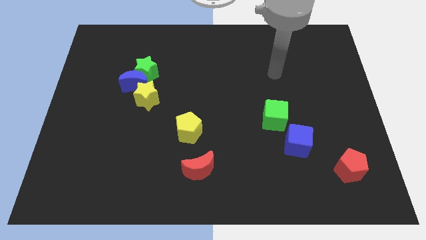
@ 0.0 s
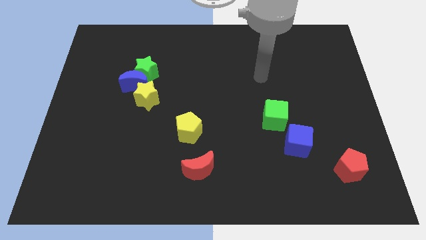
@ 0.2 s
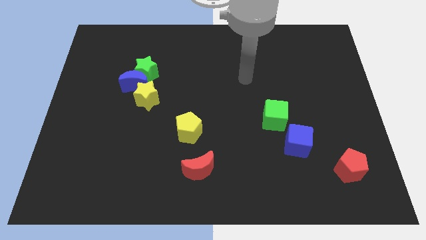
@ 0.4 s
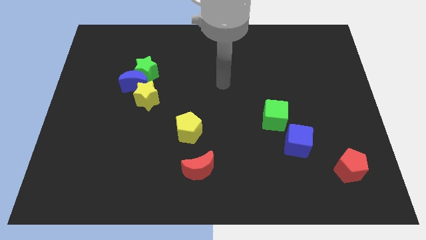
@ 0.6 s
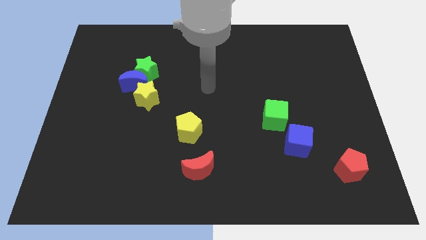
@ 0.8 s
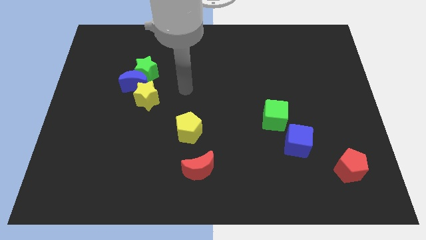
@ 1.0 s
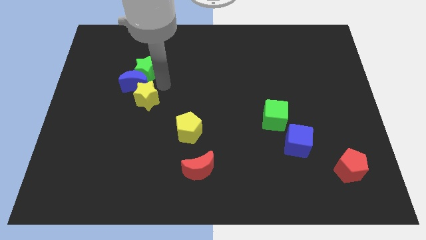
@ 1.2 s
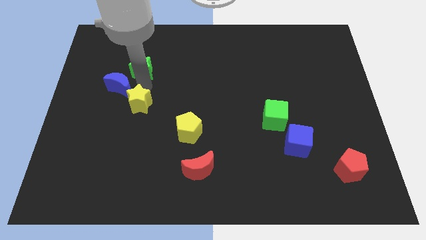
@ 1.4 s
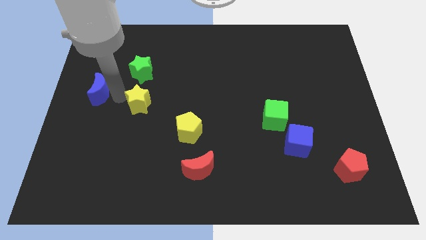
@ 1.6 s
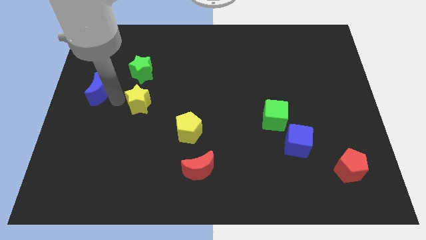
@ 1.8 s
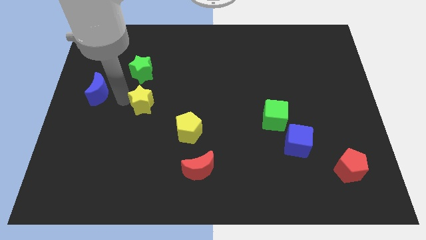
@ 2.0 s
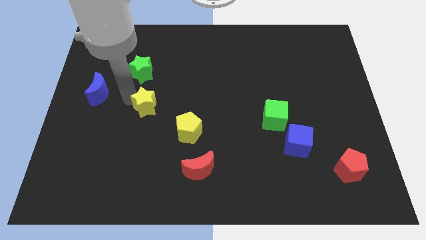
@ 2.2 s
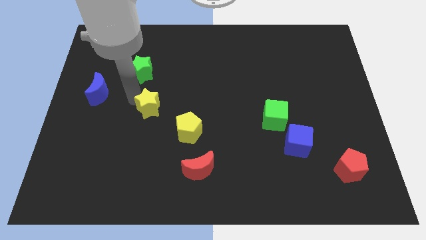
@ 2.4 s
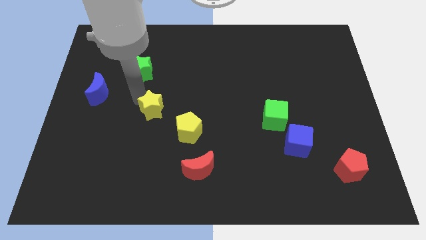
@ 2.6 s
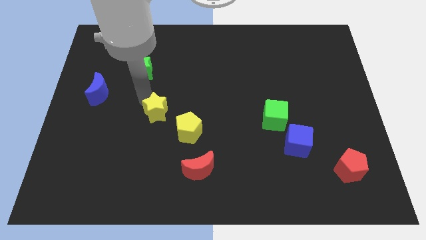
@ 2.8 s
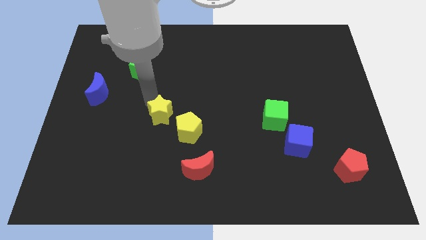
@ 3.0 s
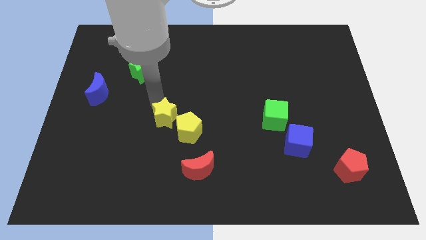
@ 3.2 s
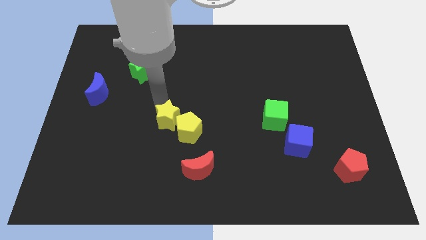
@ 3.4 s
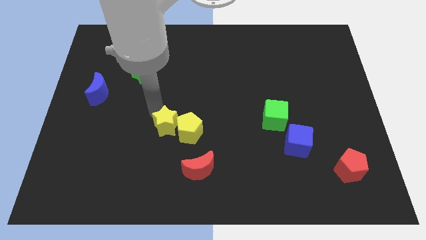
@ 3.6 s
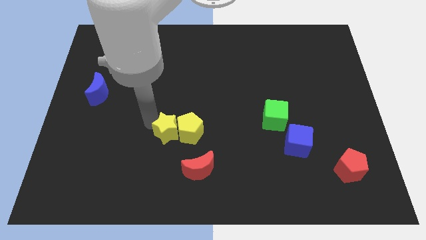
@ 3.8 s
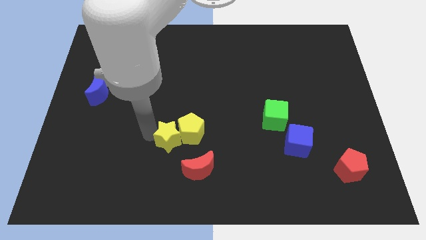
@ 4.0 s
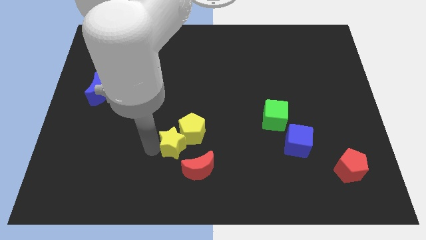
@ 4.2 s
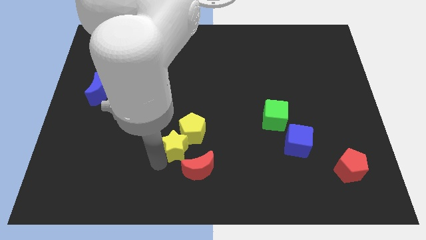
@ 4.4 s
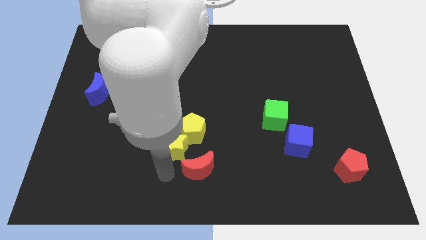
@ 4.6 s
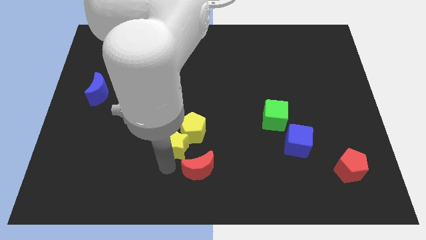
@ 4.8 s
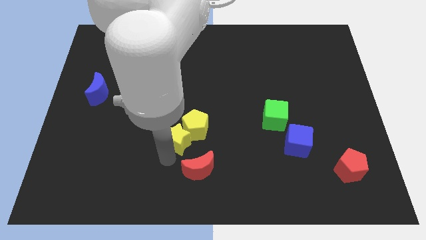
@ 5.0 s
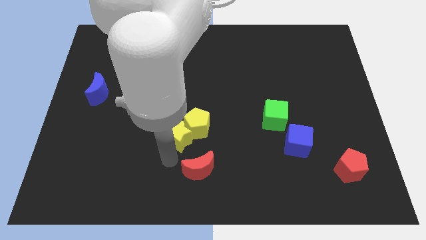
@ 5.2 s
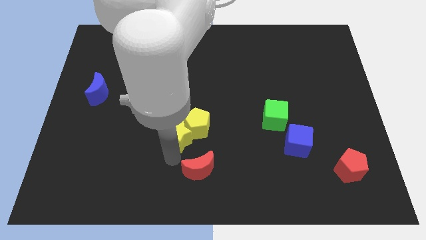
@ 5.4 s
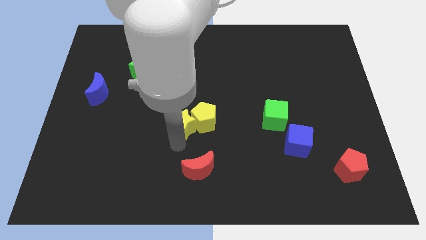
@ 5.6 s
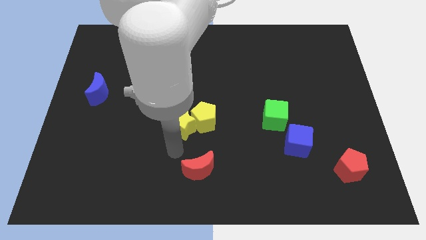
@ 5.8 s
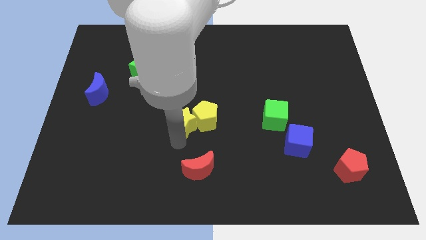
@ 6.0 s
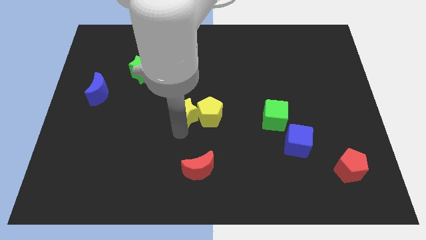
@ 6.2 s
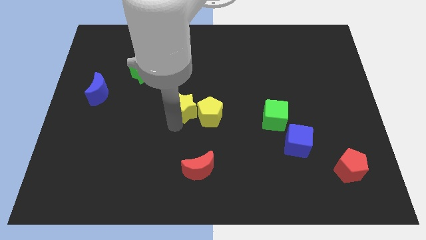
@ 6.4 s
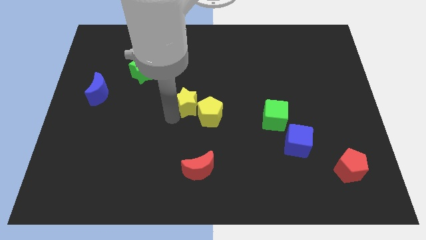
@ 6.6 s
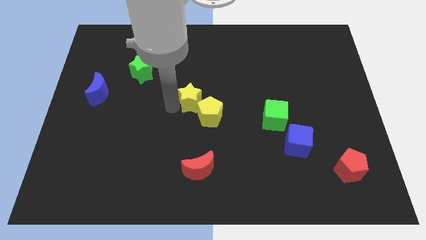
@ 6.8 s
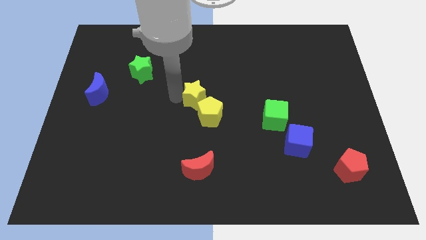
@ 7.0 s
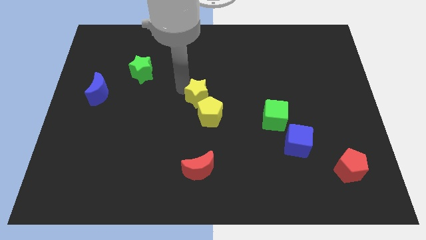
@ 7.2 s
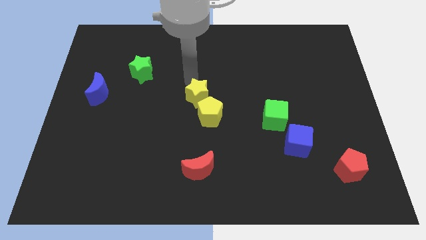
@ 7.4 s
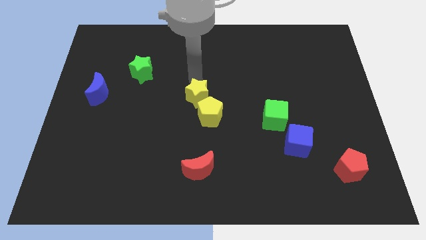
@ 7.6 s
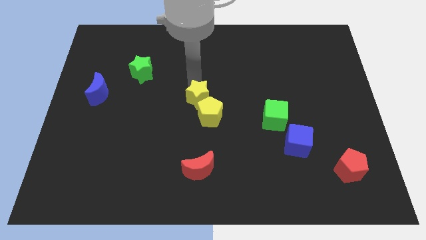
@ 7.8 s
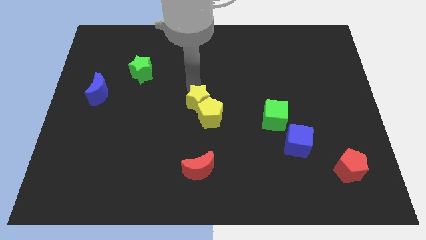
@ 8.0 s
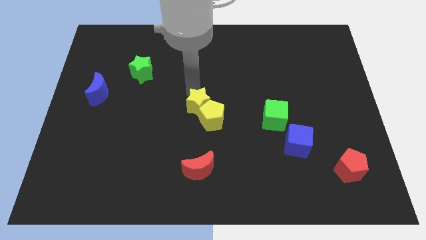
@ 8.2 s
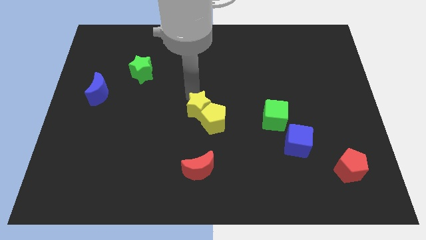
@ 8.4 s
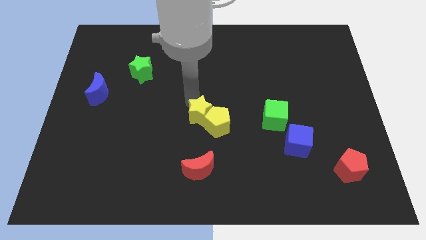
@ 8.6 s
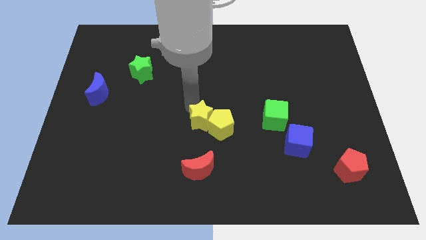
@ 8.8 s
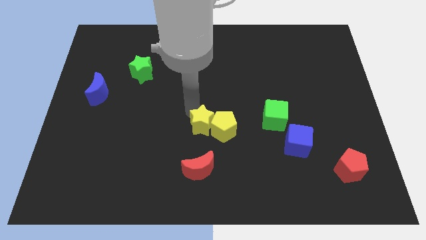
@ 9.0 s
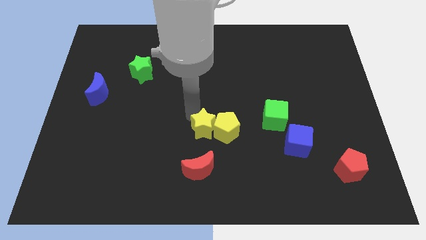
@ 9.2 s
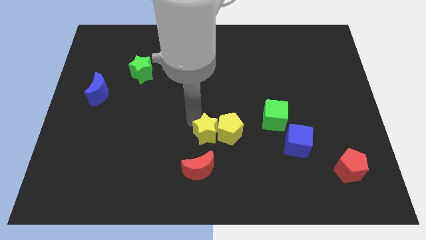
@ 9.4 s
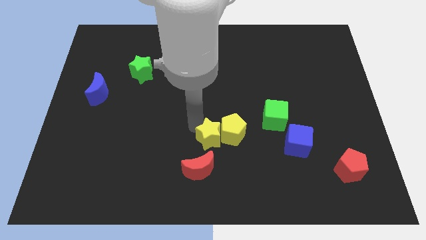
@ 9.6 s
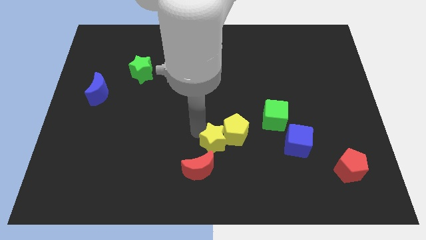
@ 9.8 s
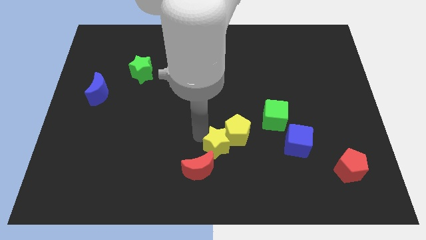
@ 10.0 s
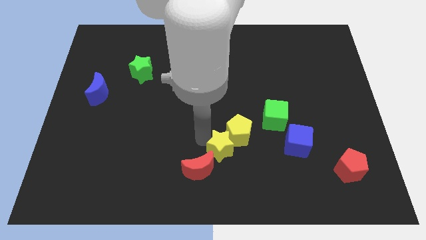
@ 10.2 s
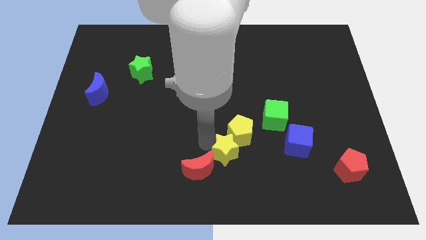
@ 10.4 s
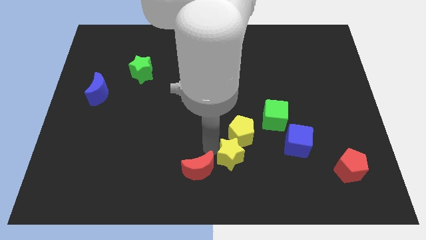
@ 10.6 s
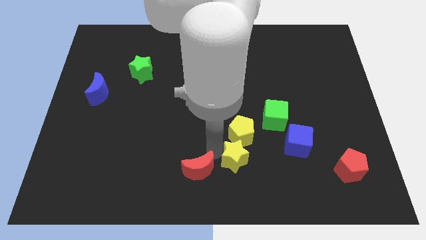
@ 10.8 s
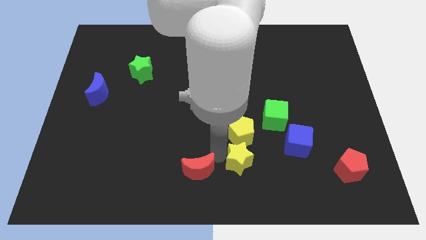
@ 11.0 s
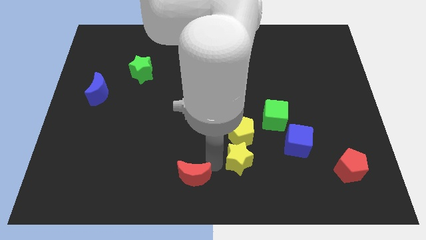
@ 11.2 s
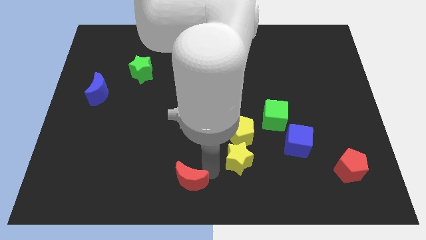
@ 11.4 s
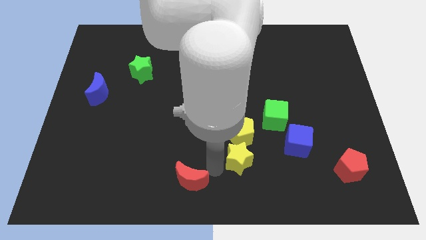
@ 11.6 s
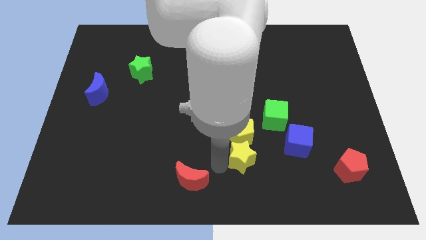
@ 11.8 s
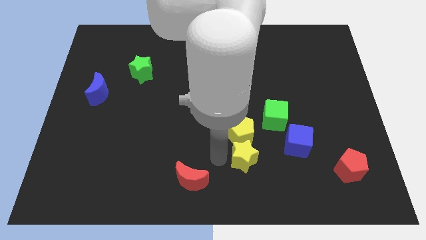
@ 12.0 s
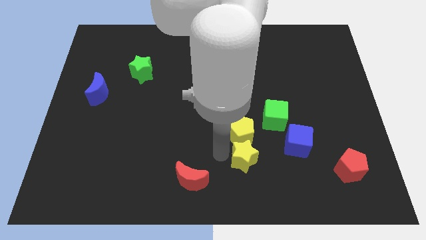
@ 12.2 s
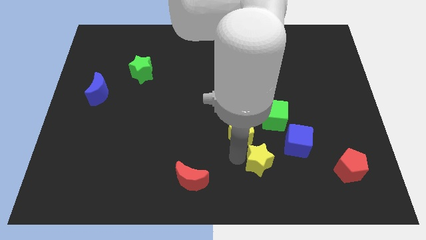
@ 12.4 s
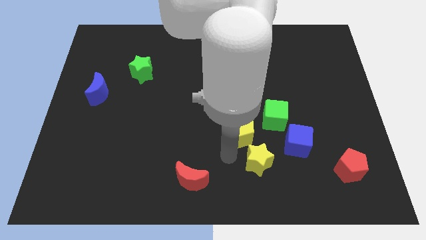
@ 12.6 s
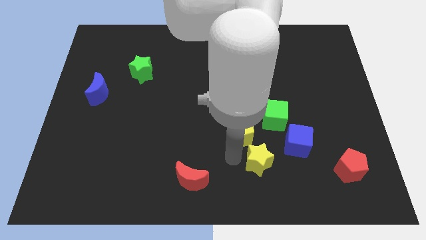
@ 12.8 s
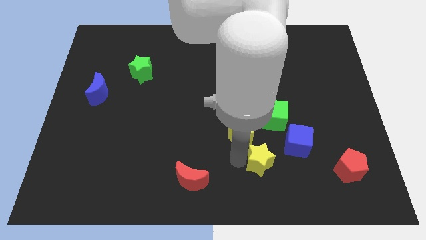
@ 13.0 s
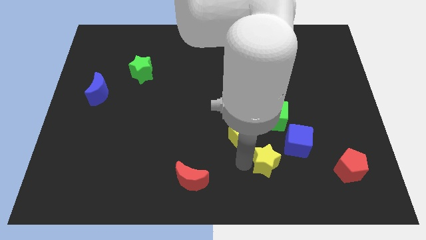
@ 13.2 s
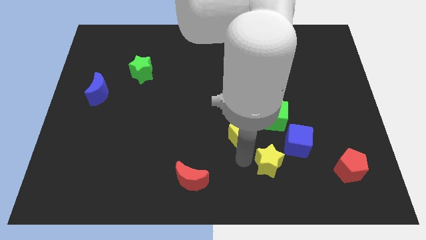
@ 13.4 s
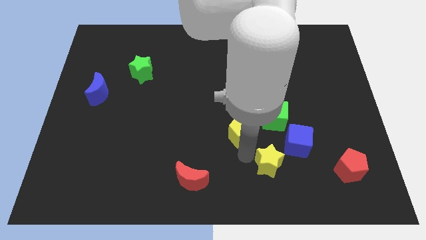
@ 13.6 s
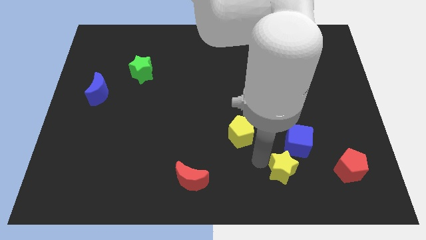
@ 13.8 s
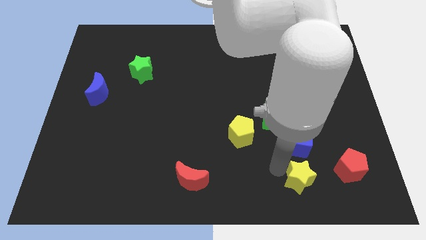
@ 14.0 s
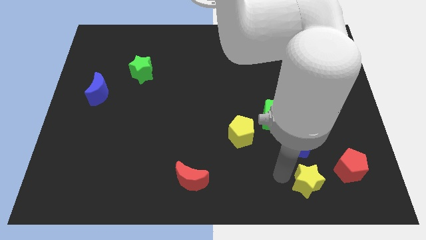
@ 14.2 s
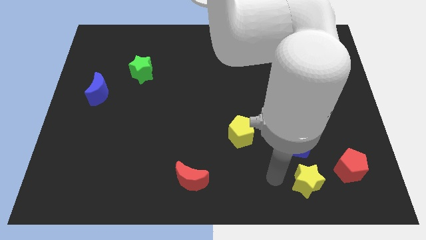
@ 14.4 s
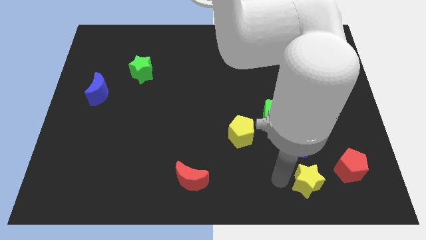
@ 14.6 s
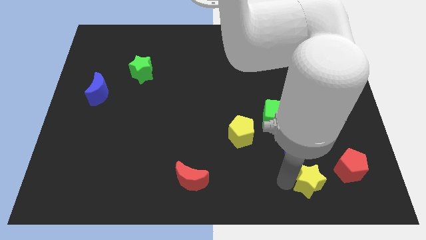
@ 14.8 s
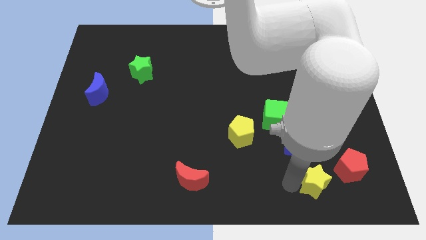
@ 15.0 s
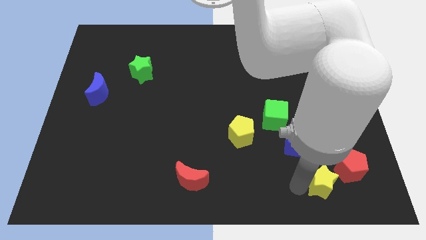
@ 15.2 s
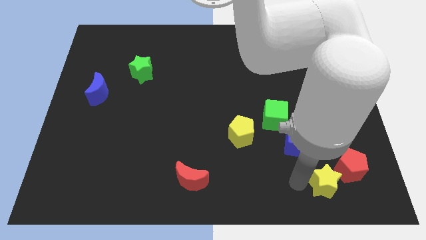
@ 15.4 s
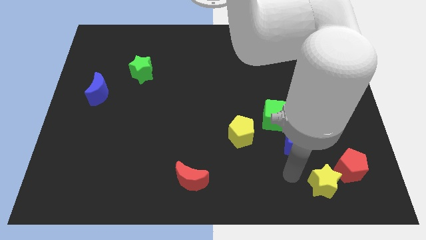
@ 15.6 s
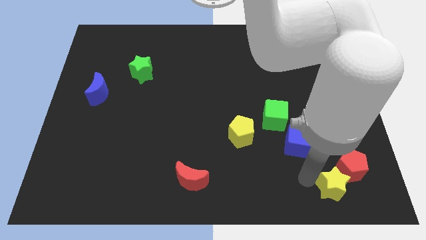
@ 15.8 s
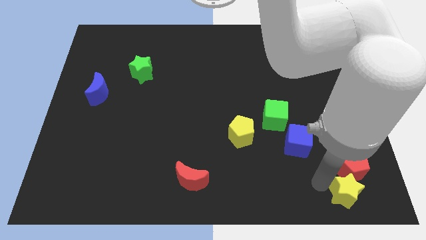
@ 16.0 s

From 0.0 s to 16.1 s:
put the yellow star to the bottom right of the board
